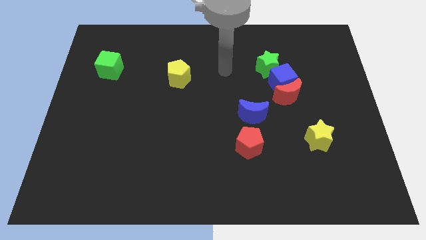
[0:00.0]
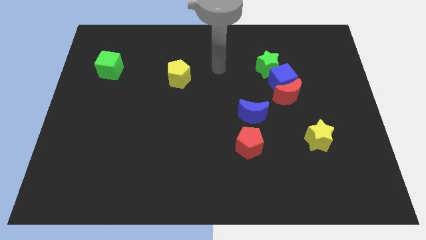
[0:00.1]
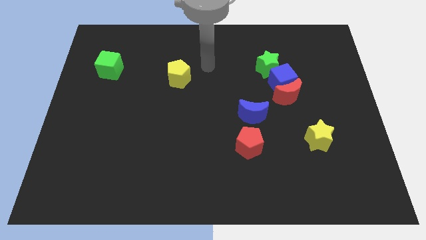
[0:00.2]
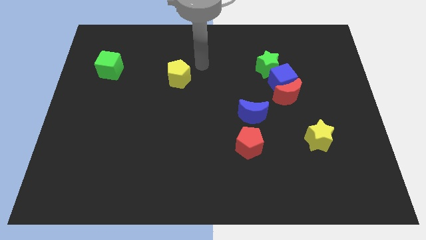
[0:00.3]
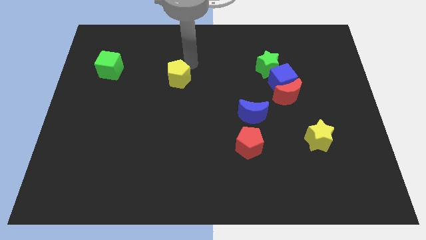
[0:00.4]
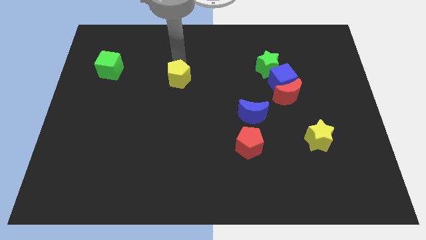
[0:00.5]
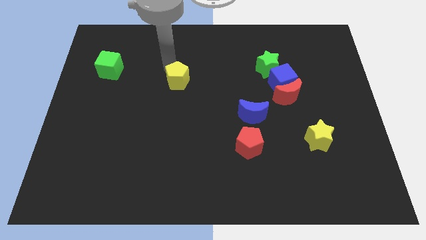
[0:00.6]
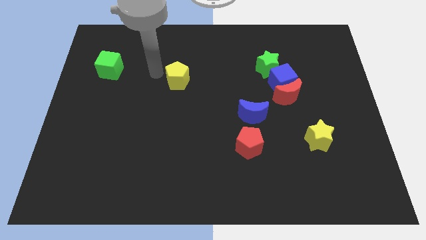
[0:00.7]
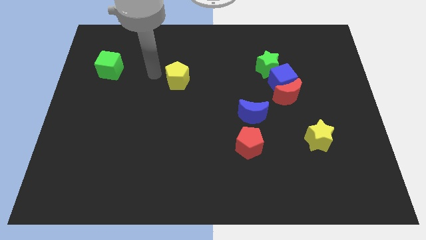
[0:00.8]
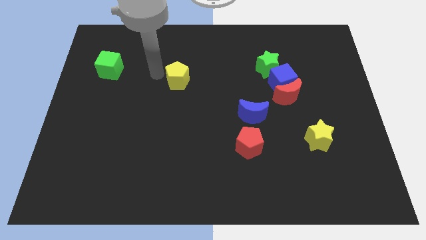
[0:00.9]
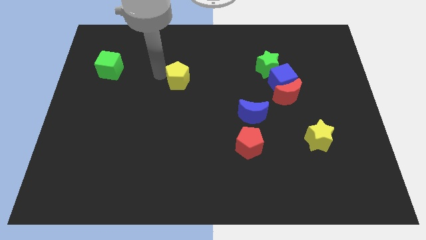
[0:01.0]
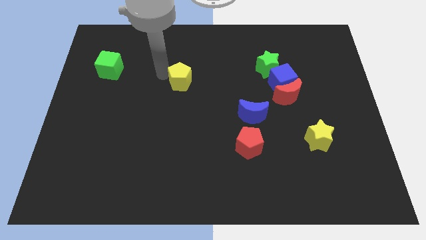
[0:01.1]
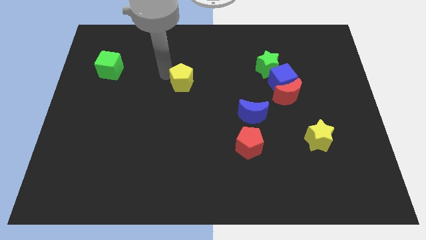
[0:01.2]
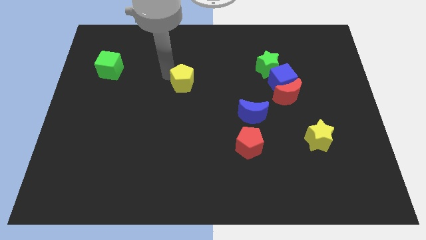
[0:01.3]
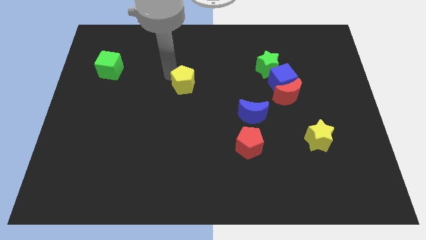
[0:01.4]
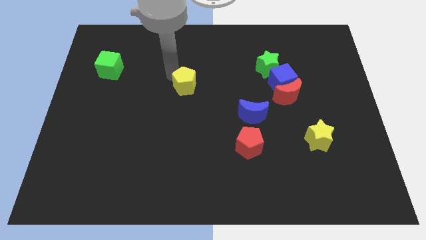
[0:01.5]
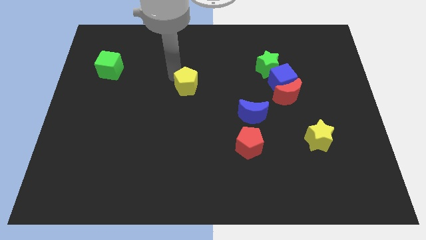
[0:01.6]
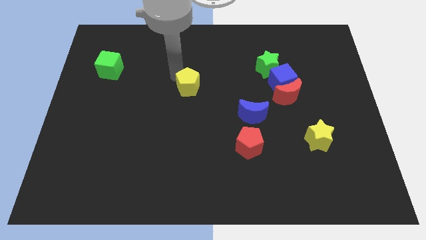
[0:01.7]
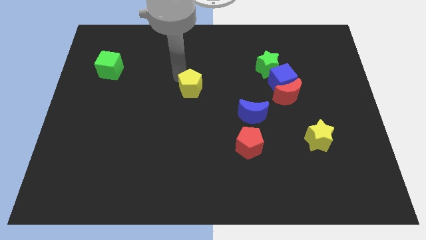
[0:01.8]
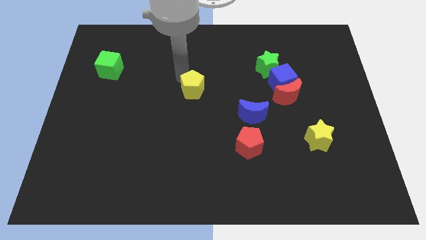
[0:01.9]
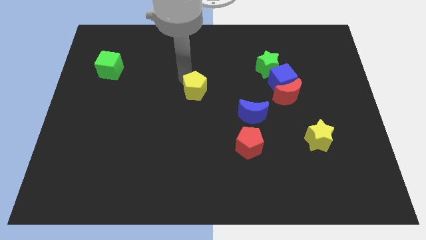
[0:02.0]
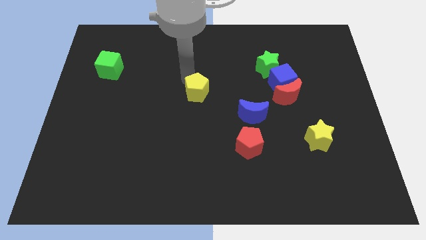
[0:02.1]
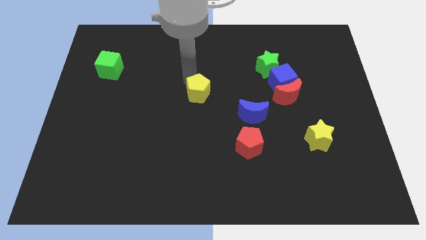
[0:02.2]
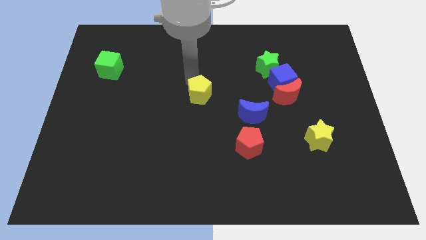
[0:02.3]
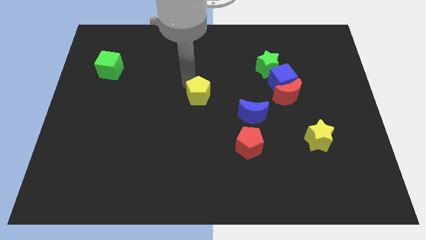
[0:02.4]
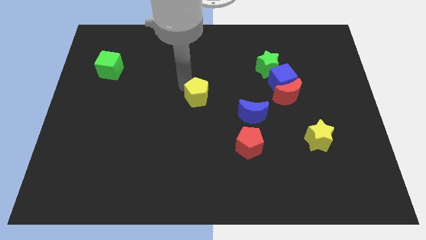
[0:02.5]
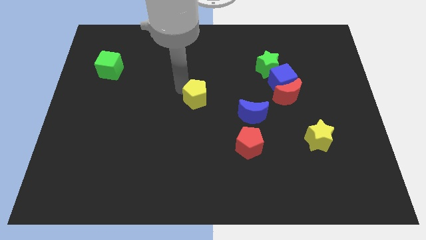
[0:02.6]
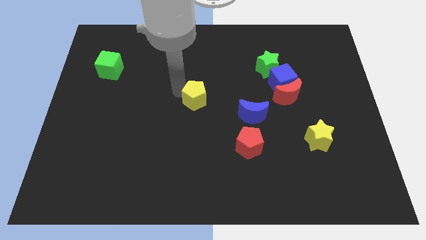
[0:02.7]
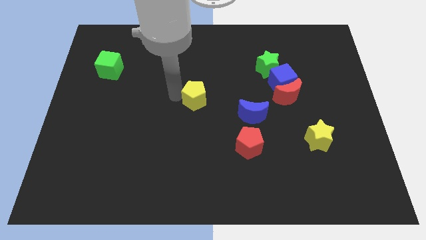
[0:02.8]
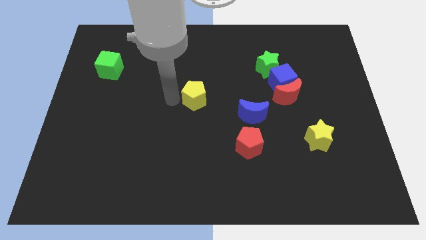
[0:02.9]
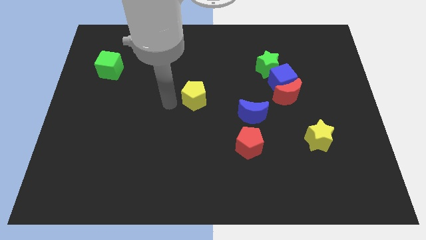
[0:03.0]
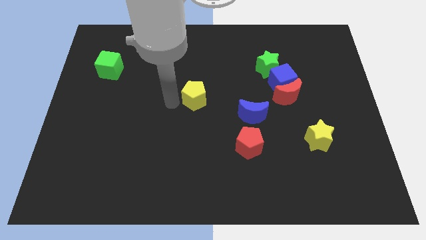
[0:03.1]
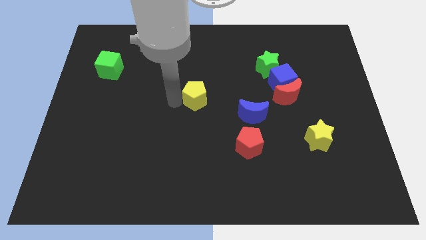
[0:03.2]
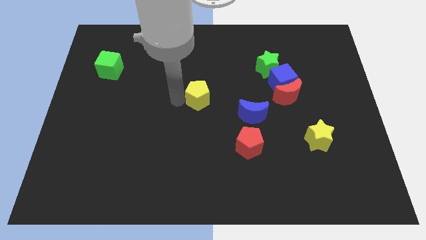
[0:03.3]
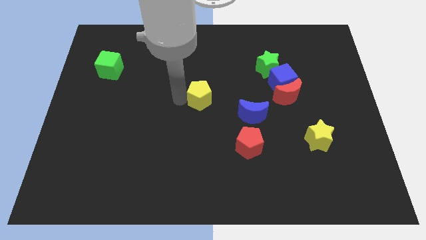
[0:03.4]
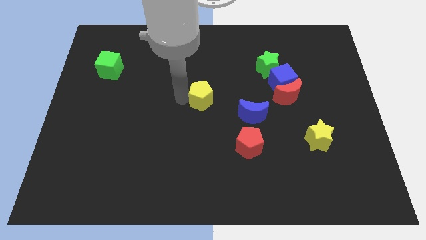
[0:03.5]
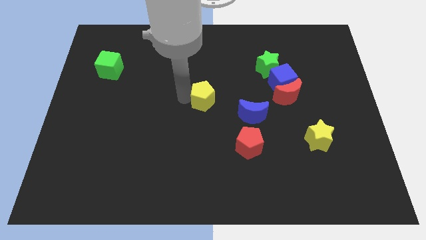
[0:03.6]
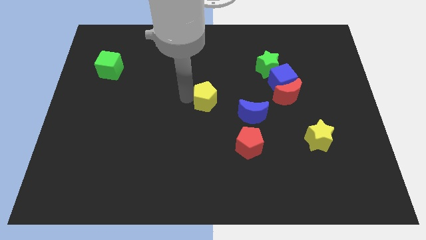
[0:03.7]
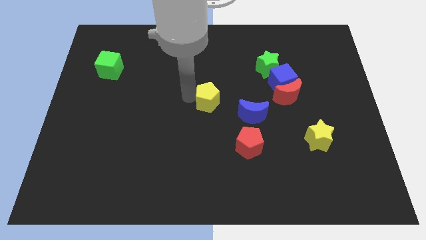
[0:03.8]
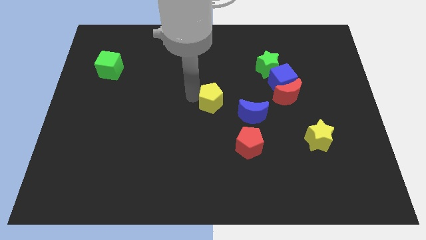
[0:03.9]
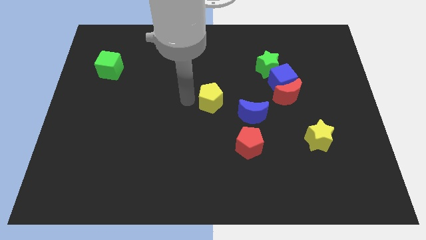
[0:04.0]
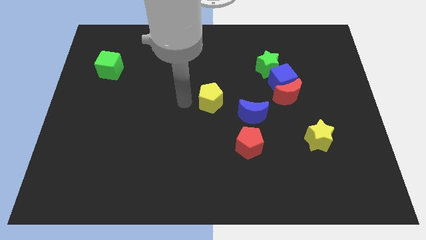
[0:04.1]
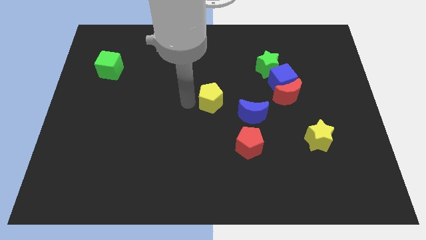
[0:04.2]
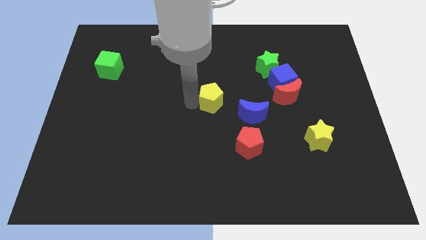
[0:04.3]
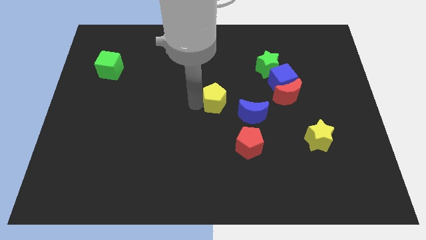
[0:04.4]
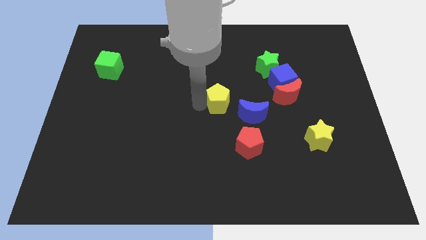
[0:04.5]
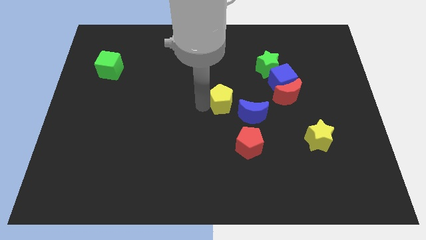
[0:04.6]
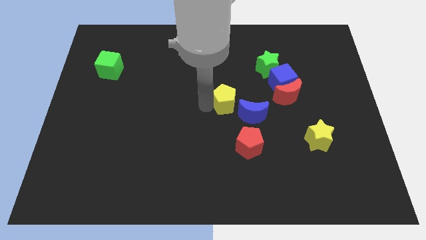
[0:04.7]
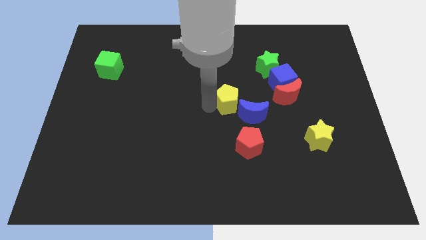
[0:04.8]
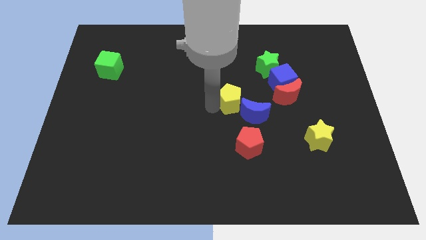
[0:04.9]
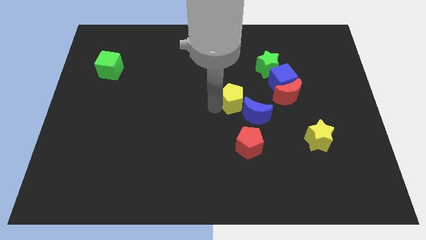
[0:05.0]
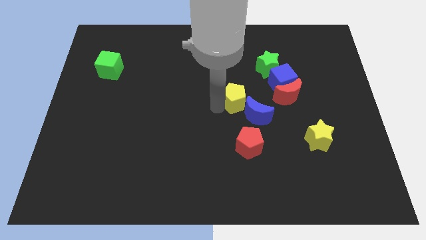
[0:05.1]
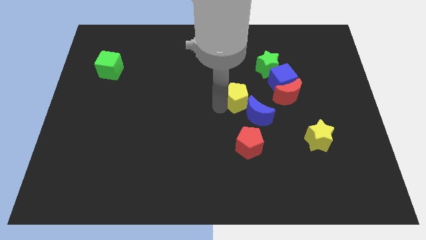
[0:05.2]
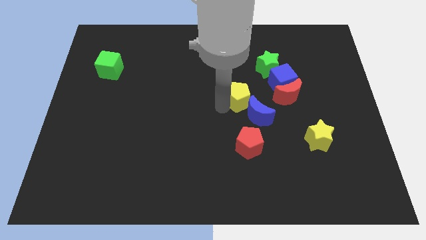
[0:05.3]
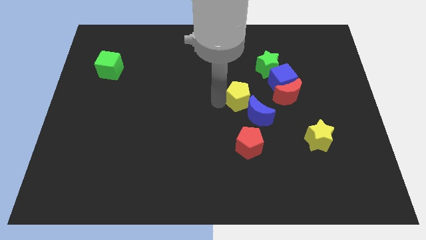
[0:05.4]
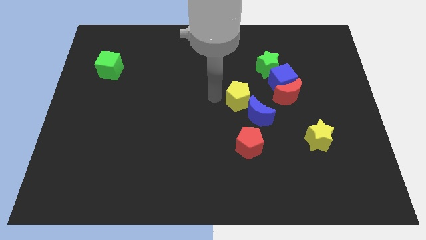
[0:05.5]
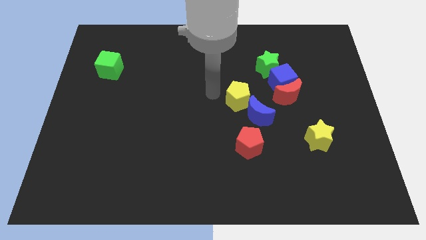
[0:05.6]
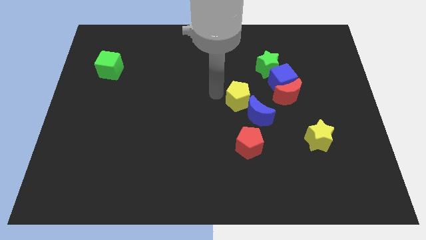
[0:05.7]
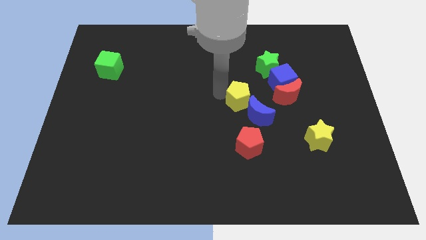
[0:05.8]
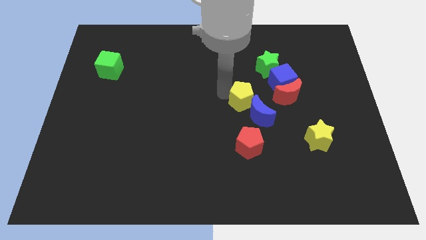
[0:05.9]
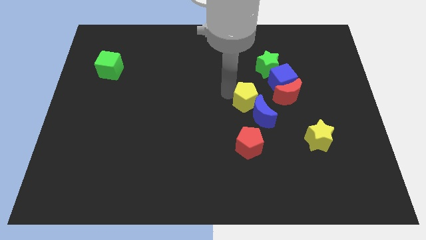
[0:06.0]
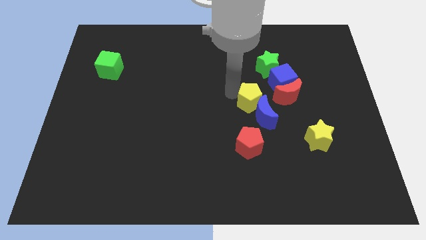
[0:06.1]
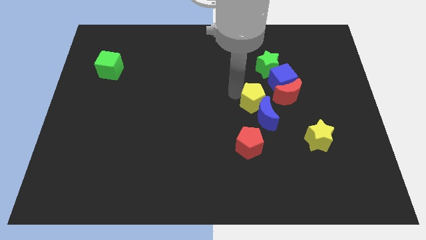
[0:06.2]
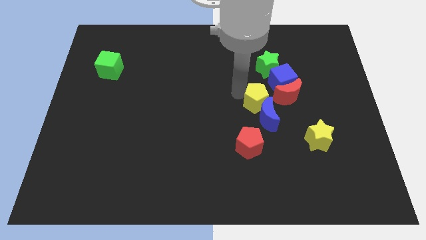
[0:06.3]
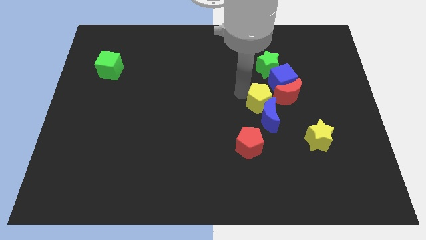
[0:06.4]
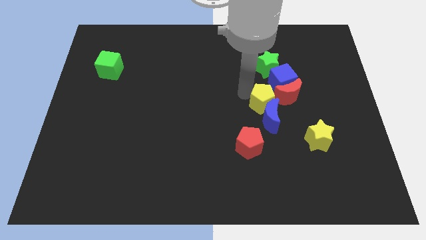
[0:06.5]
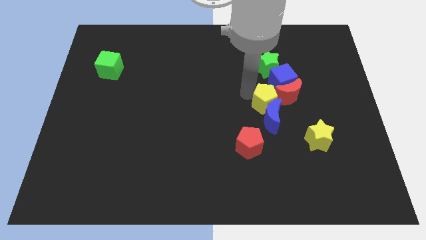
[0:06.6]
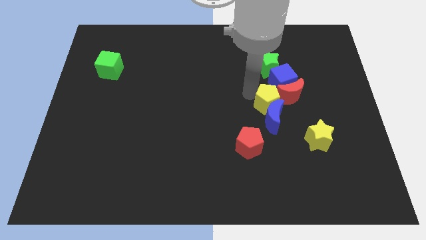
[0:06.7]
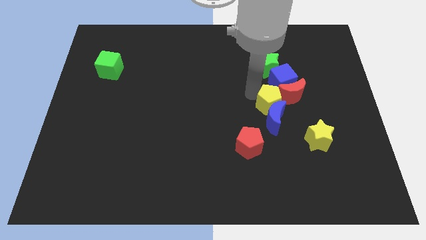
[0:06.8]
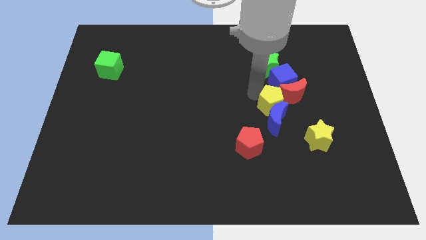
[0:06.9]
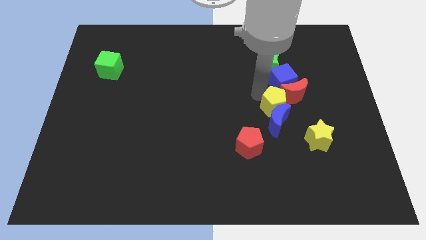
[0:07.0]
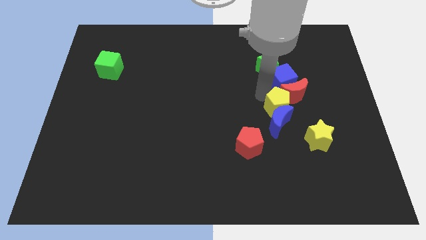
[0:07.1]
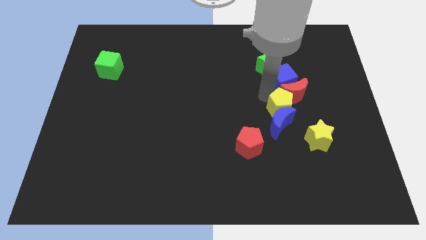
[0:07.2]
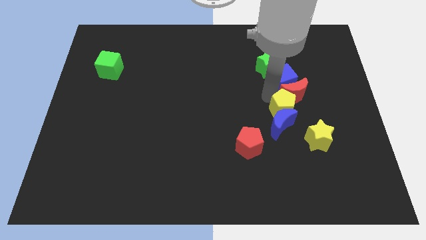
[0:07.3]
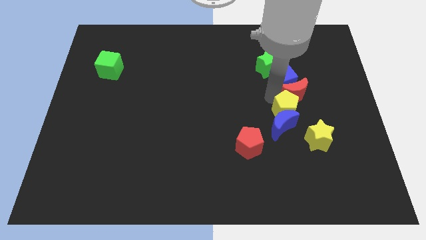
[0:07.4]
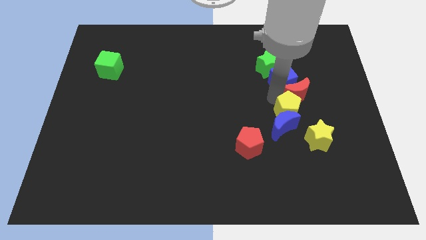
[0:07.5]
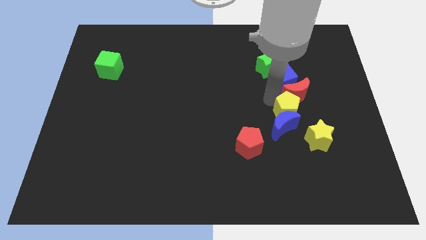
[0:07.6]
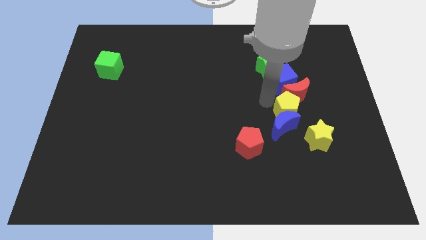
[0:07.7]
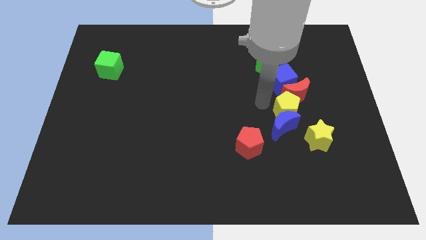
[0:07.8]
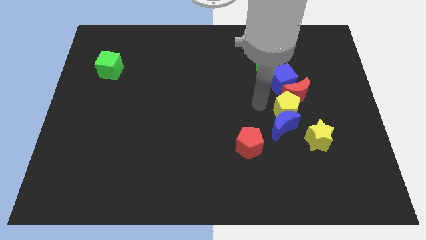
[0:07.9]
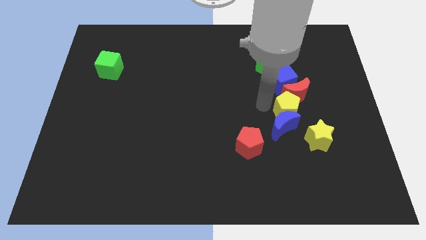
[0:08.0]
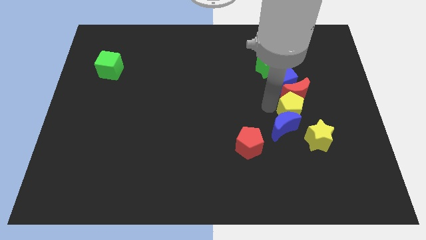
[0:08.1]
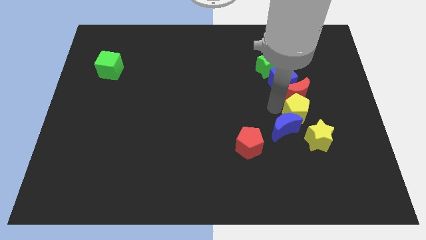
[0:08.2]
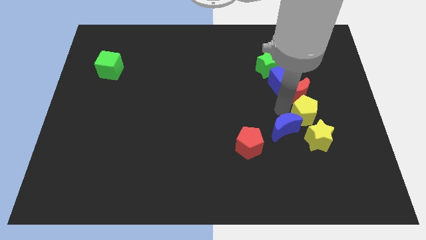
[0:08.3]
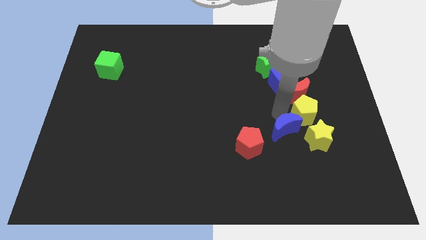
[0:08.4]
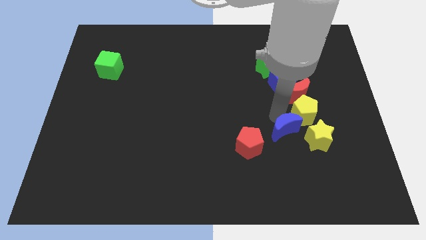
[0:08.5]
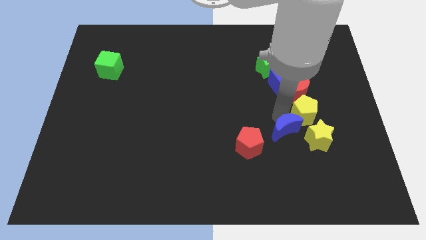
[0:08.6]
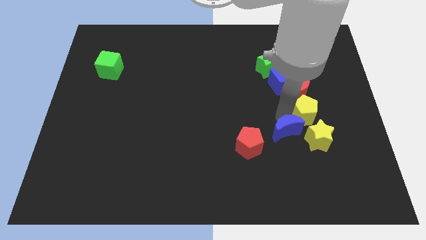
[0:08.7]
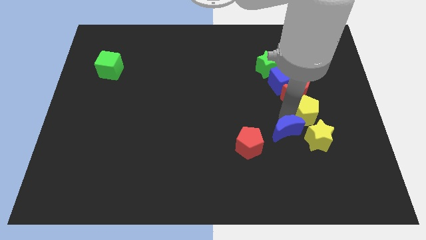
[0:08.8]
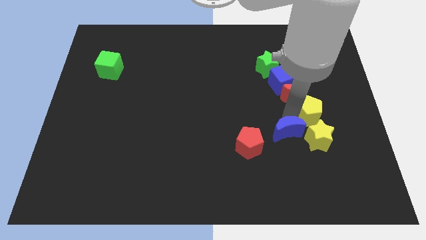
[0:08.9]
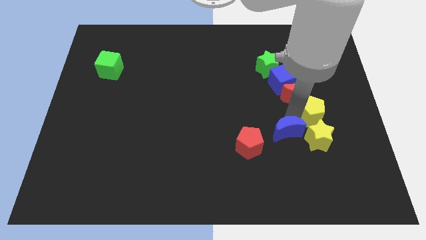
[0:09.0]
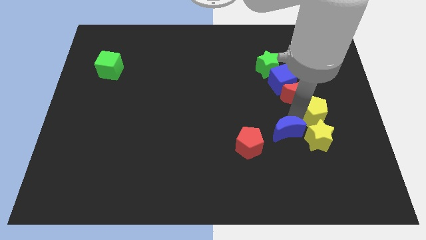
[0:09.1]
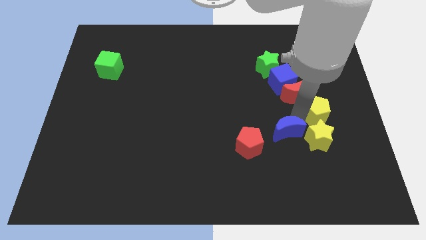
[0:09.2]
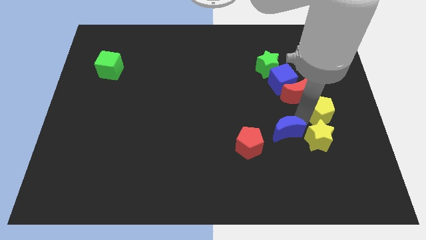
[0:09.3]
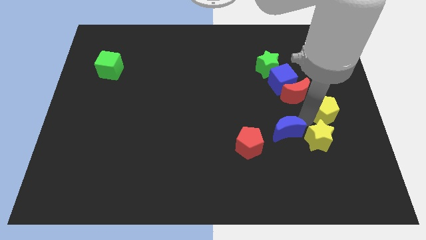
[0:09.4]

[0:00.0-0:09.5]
push the yellow pentagon to the center right
